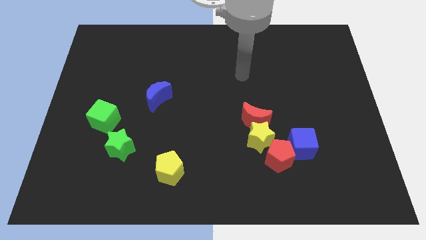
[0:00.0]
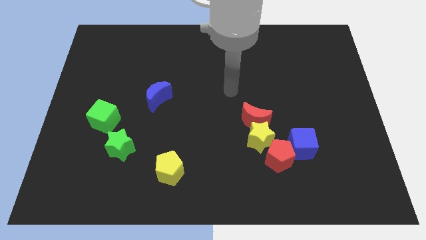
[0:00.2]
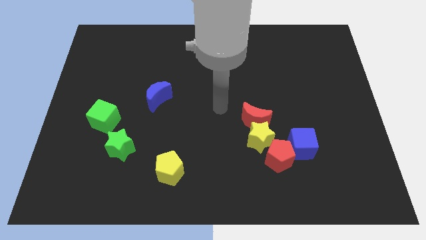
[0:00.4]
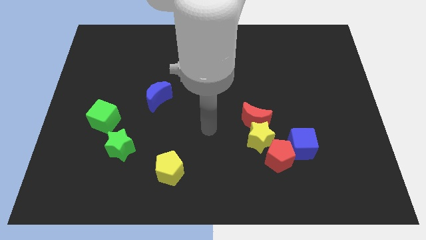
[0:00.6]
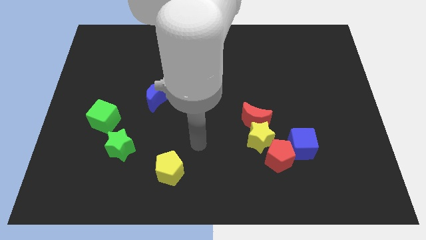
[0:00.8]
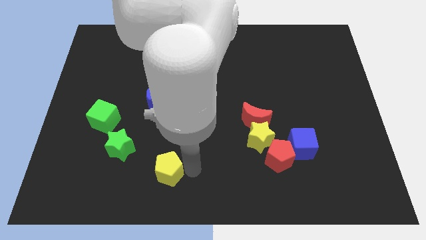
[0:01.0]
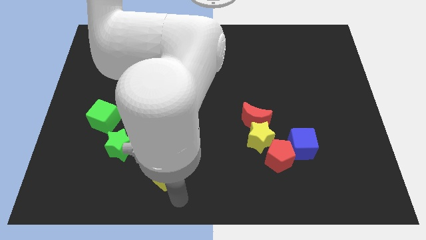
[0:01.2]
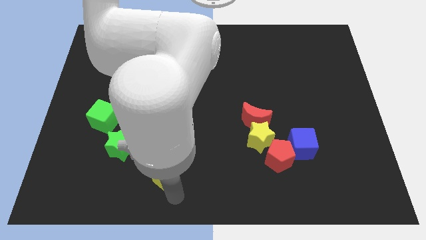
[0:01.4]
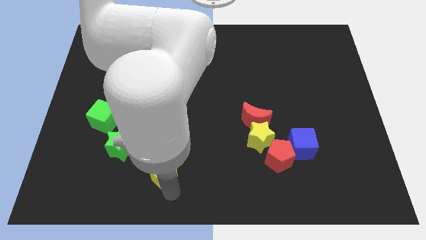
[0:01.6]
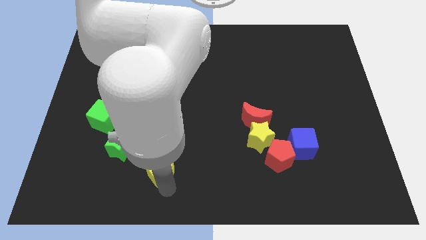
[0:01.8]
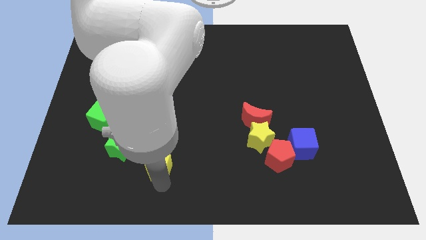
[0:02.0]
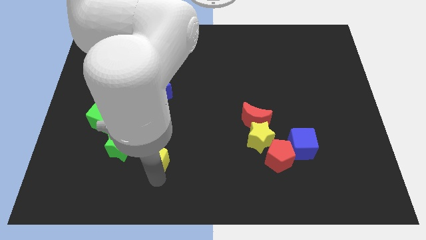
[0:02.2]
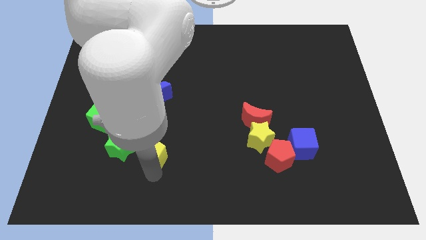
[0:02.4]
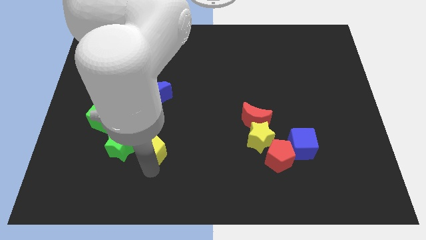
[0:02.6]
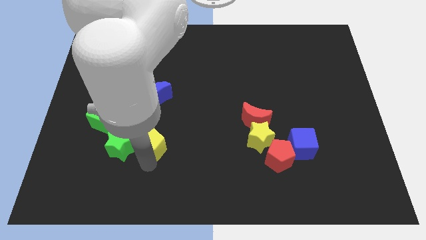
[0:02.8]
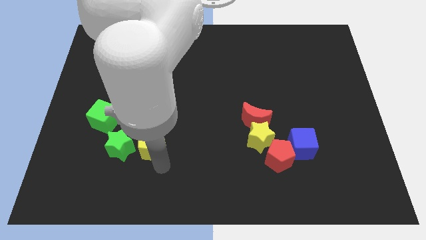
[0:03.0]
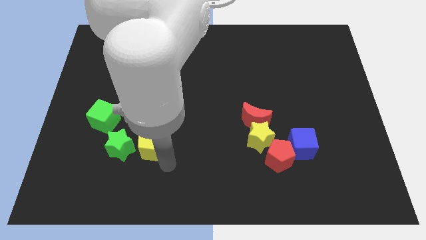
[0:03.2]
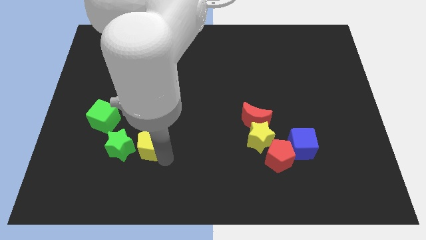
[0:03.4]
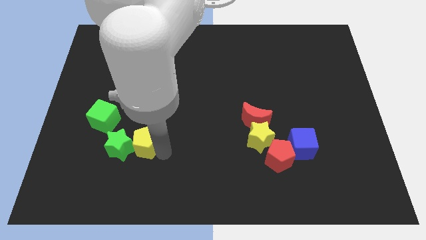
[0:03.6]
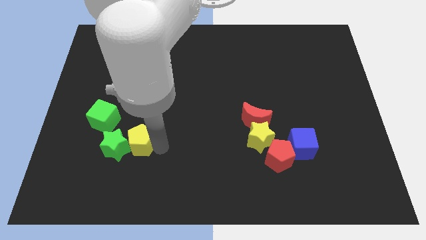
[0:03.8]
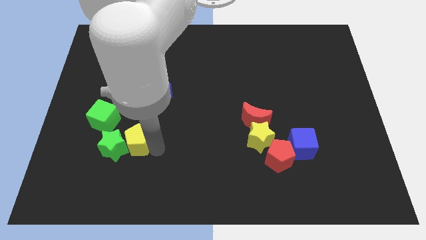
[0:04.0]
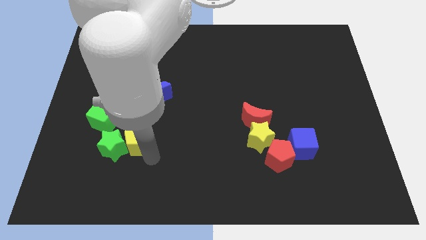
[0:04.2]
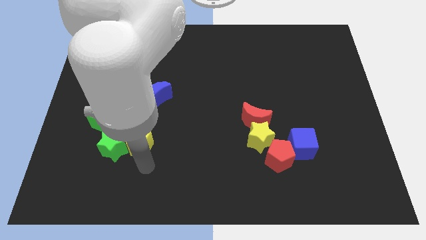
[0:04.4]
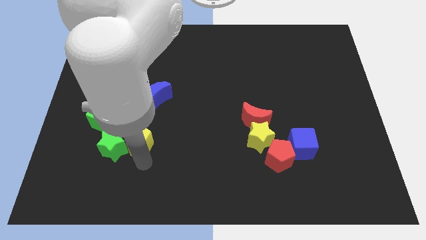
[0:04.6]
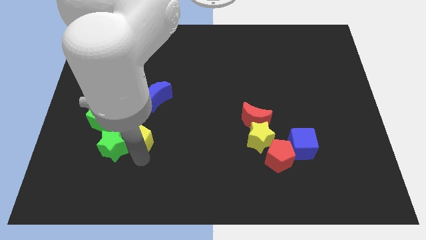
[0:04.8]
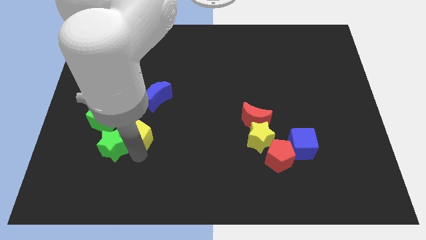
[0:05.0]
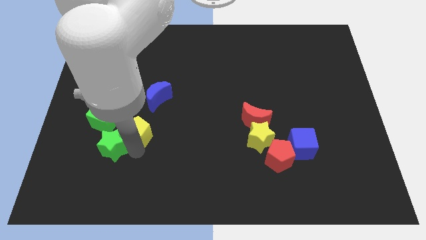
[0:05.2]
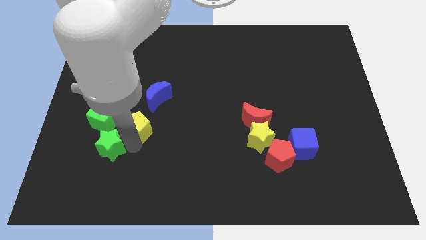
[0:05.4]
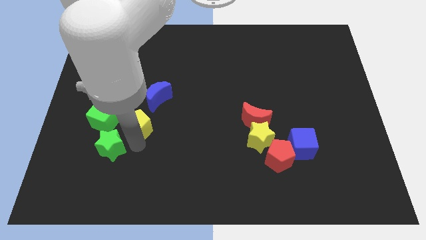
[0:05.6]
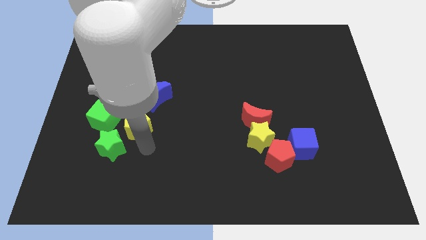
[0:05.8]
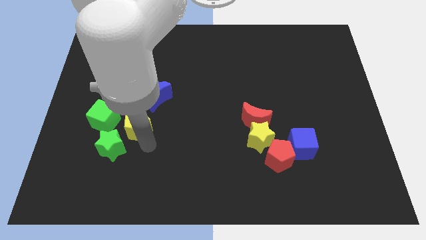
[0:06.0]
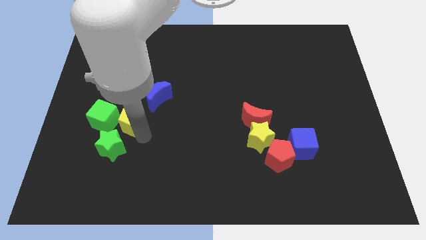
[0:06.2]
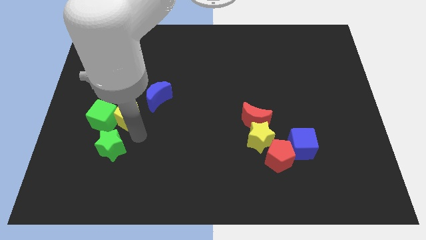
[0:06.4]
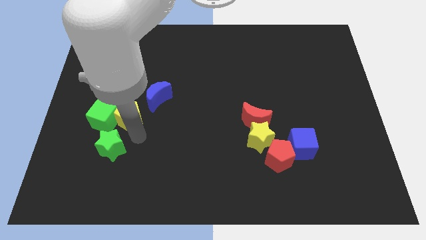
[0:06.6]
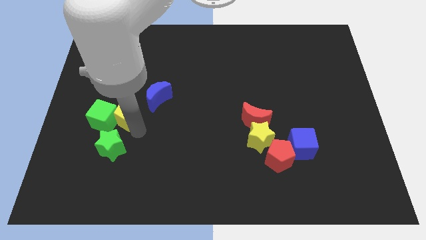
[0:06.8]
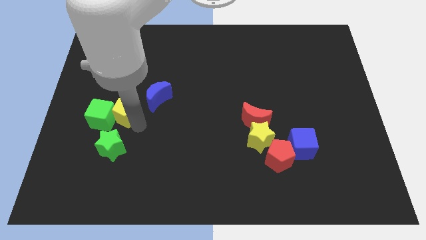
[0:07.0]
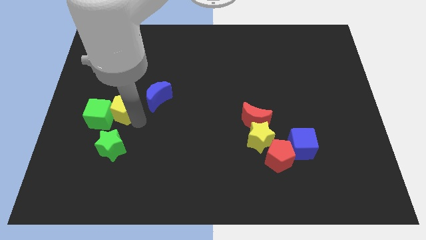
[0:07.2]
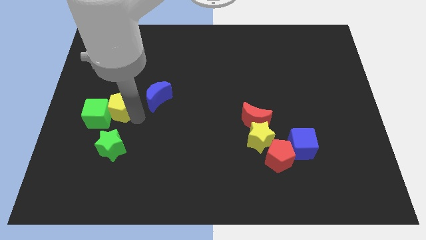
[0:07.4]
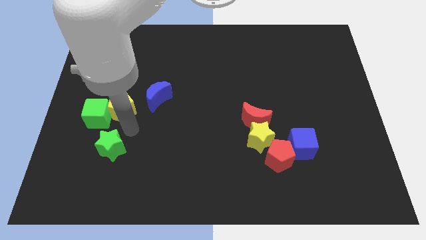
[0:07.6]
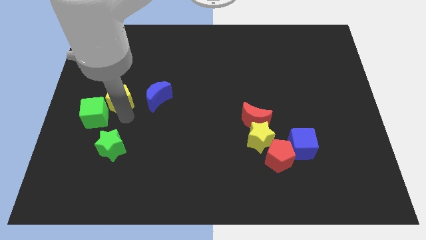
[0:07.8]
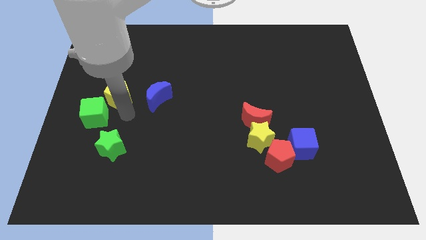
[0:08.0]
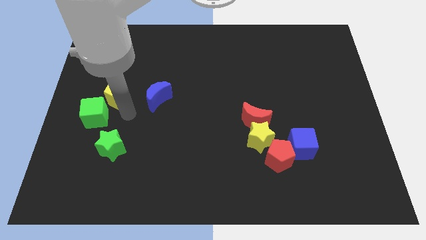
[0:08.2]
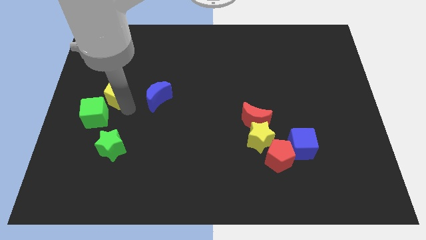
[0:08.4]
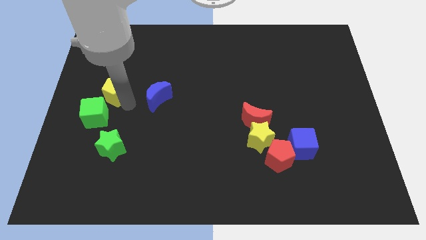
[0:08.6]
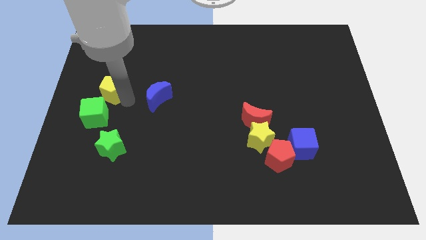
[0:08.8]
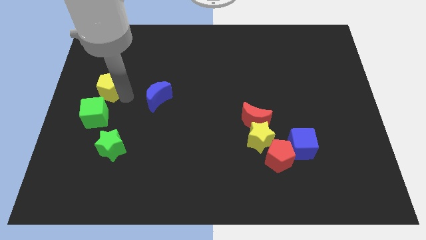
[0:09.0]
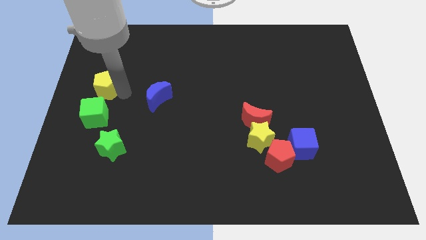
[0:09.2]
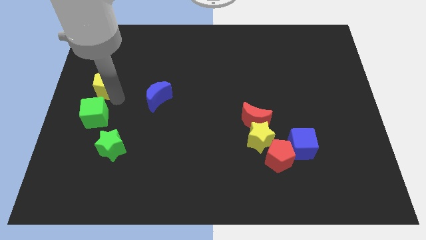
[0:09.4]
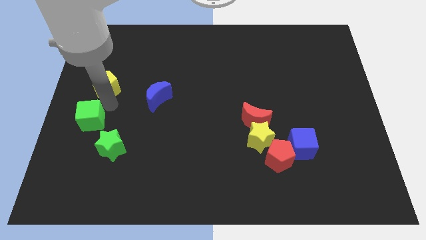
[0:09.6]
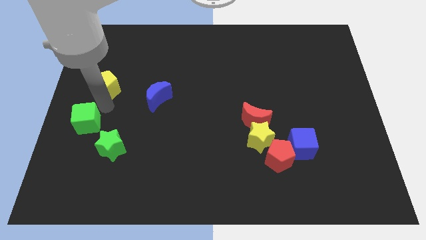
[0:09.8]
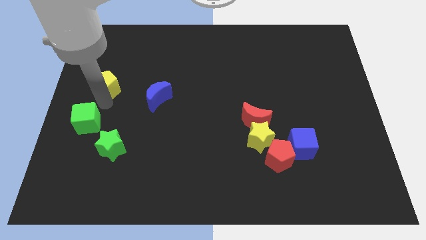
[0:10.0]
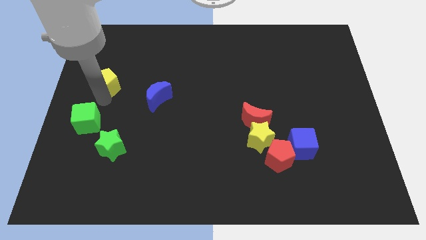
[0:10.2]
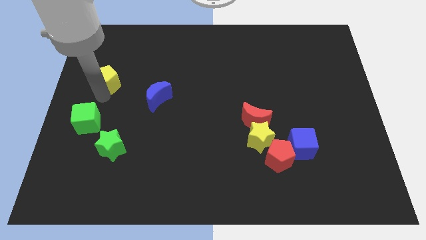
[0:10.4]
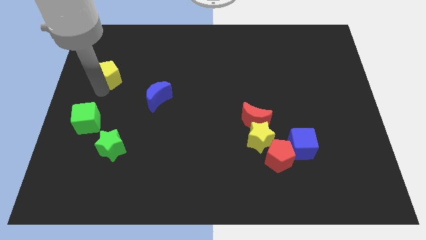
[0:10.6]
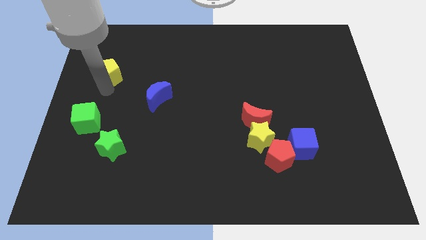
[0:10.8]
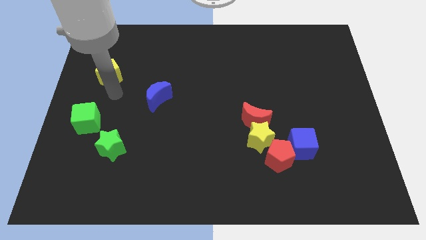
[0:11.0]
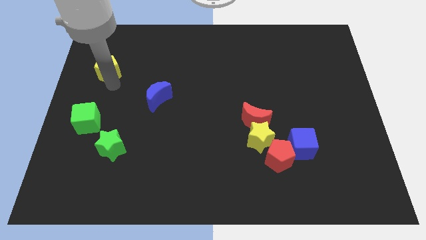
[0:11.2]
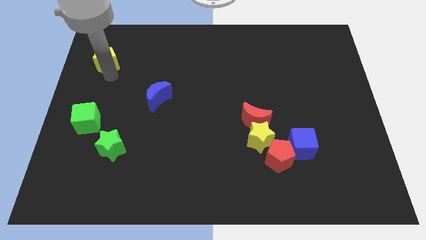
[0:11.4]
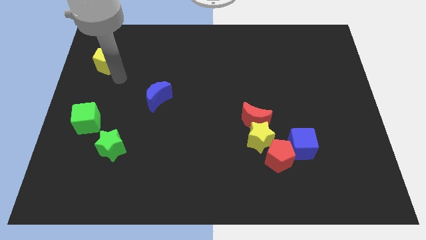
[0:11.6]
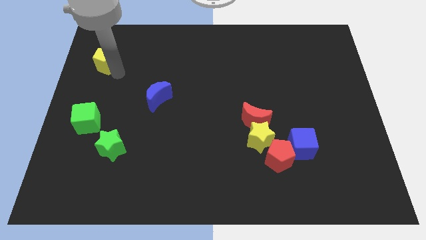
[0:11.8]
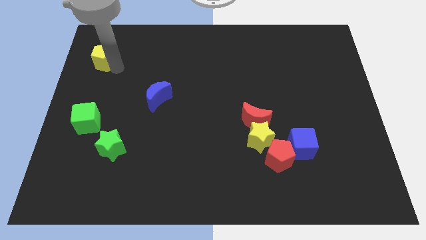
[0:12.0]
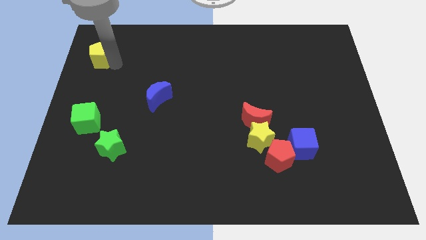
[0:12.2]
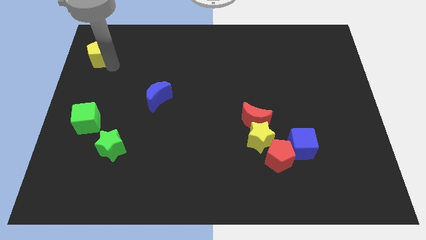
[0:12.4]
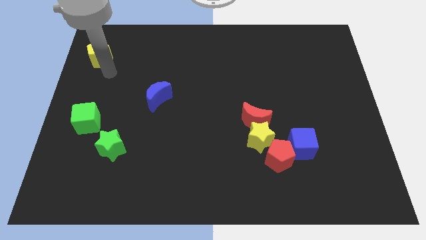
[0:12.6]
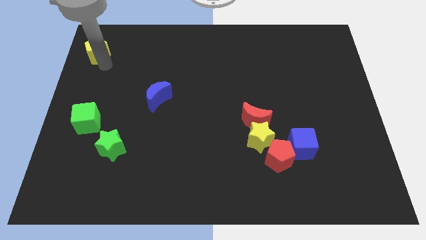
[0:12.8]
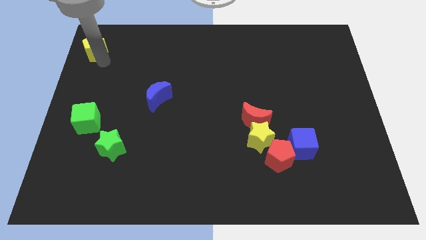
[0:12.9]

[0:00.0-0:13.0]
push the yellow pentagon to the top left
